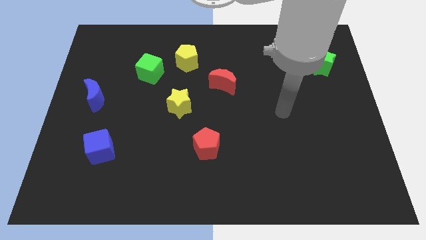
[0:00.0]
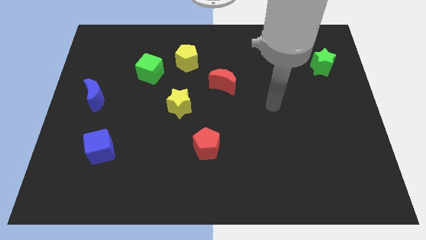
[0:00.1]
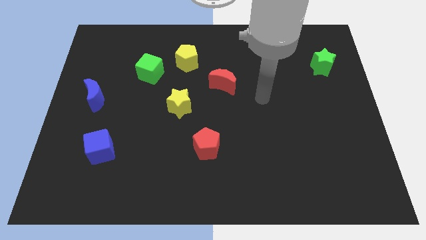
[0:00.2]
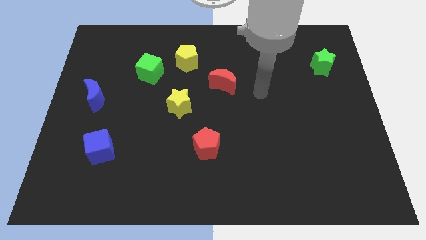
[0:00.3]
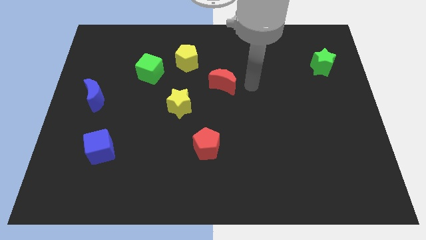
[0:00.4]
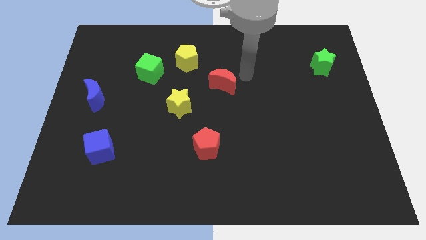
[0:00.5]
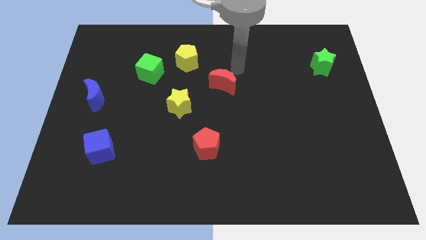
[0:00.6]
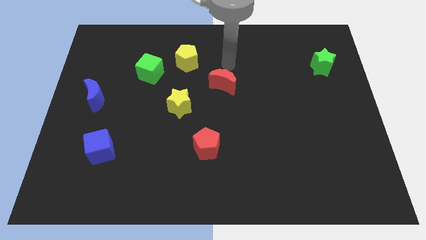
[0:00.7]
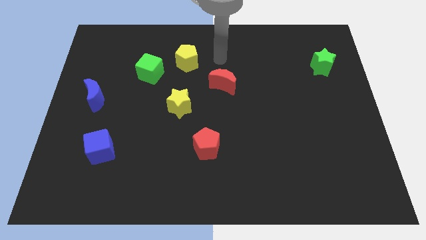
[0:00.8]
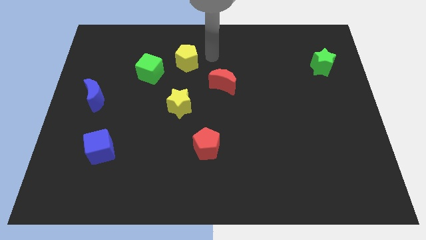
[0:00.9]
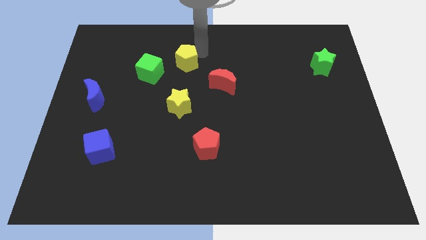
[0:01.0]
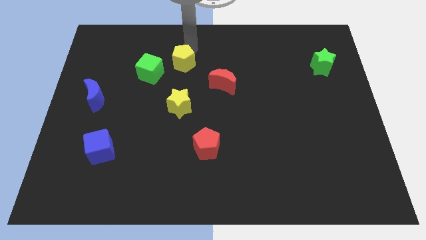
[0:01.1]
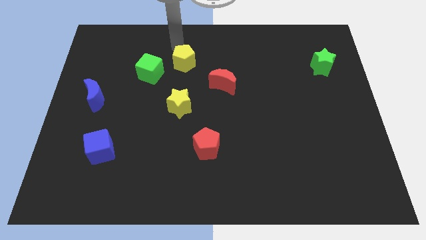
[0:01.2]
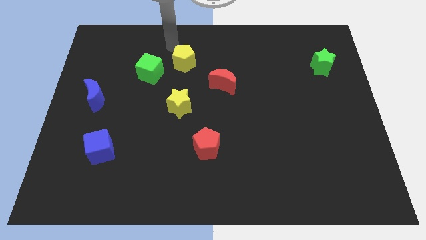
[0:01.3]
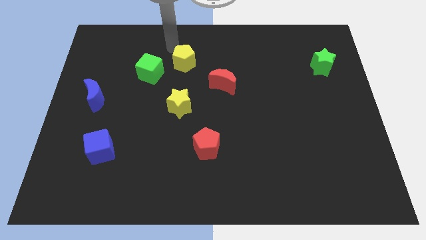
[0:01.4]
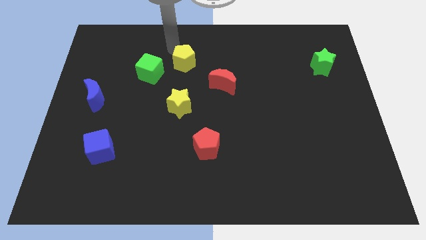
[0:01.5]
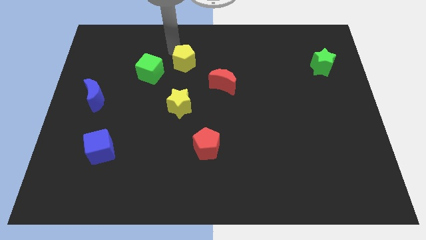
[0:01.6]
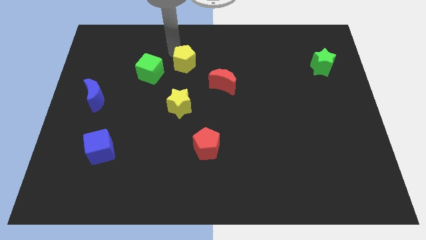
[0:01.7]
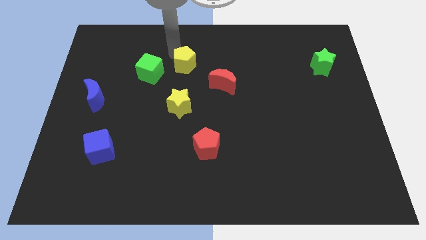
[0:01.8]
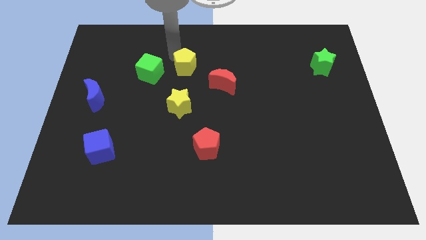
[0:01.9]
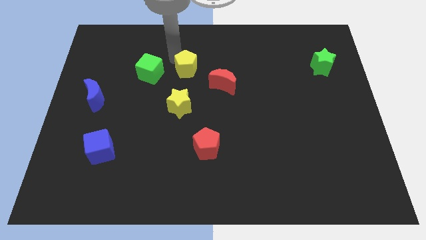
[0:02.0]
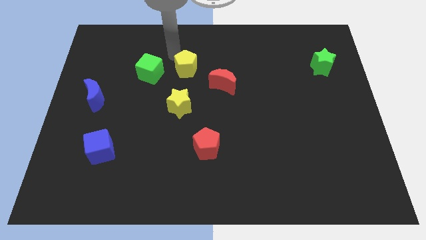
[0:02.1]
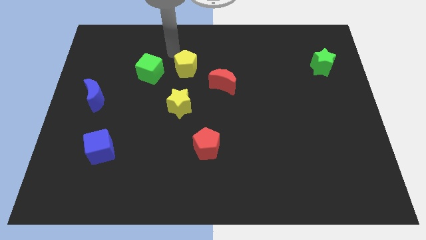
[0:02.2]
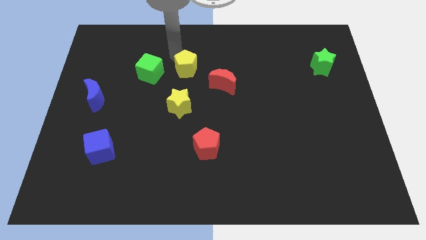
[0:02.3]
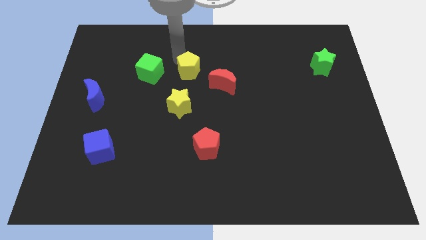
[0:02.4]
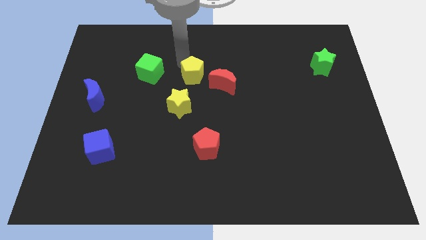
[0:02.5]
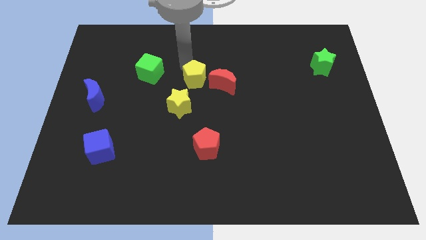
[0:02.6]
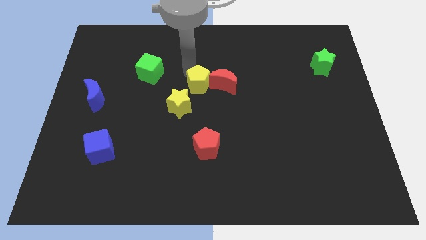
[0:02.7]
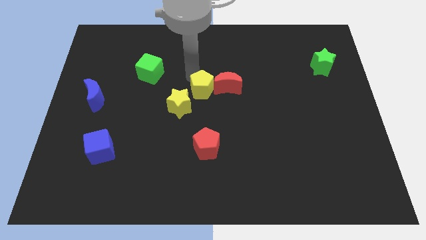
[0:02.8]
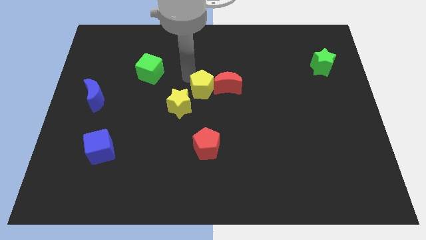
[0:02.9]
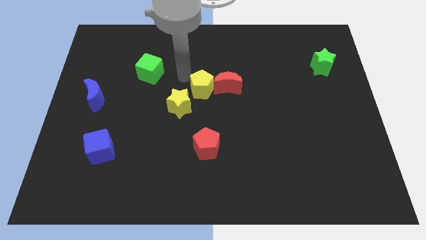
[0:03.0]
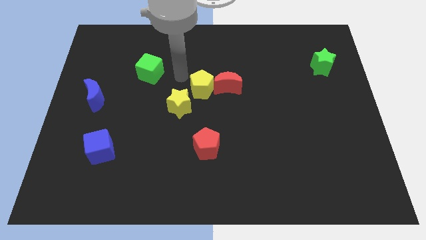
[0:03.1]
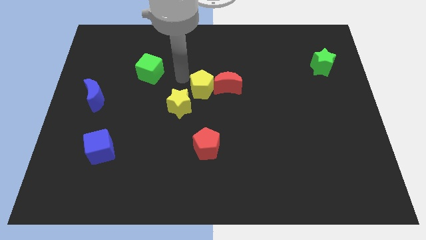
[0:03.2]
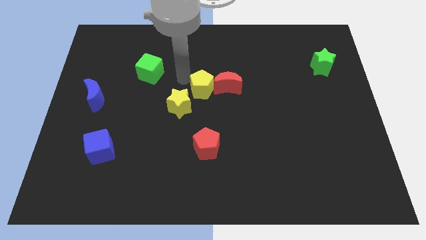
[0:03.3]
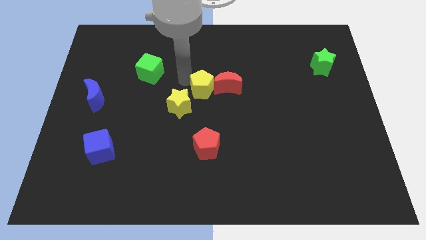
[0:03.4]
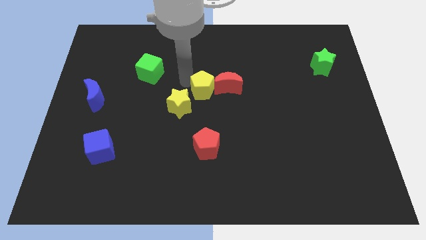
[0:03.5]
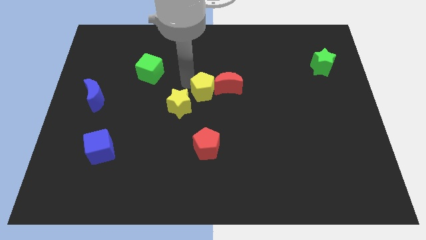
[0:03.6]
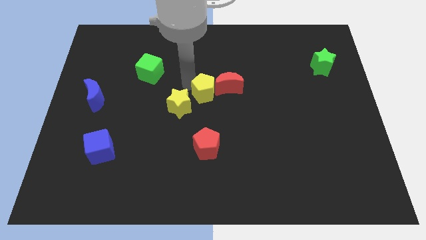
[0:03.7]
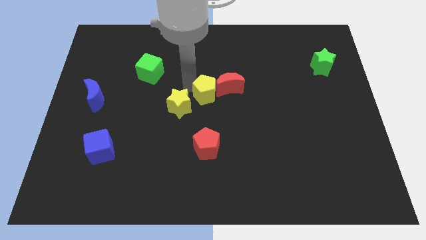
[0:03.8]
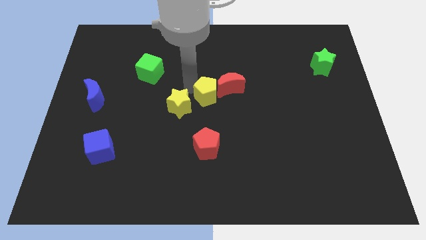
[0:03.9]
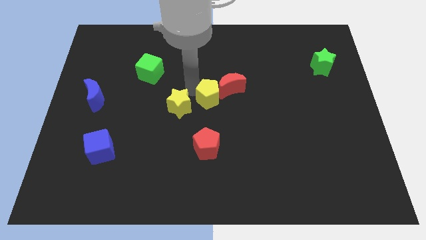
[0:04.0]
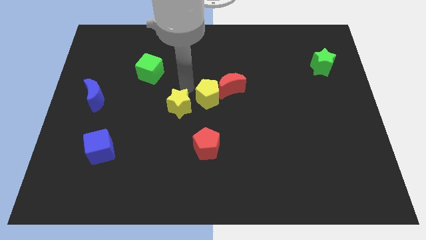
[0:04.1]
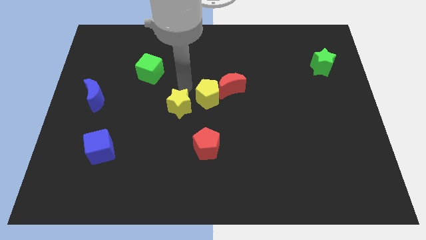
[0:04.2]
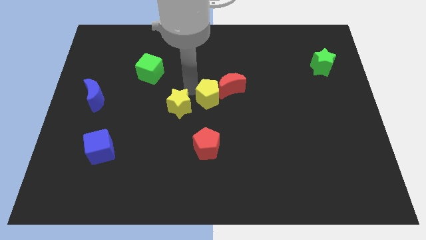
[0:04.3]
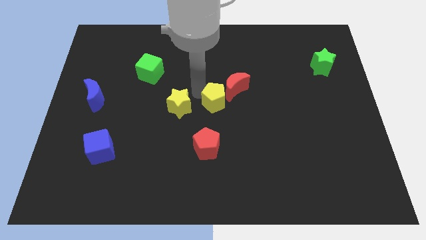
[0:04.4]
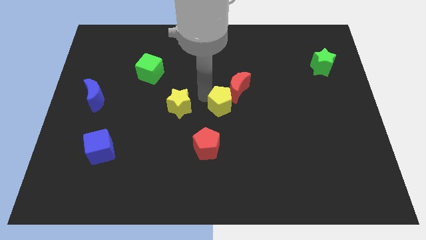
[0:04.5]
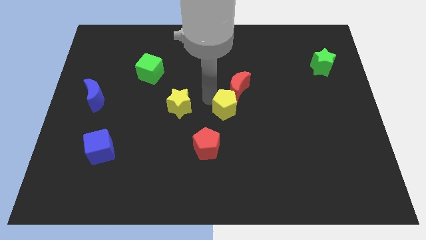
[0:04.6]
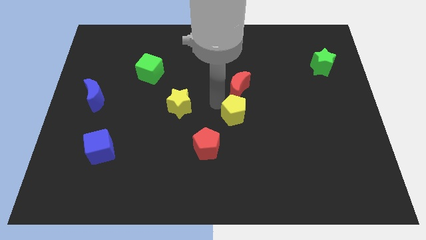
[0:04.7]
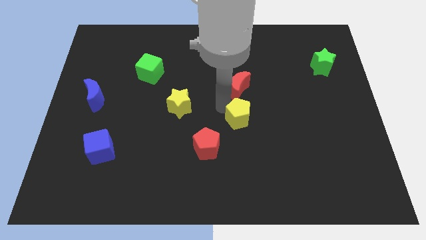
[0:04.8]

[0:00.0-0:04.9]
slide the yellow pentagon down and to the right diagonally

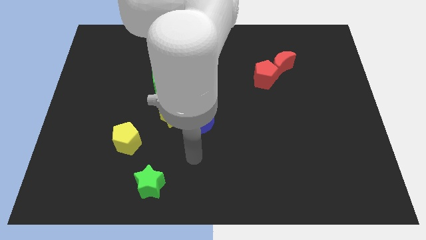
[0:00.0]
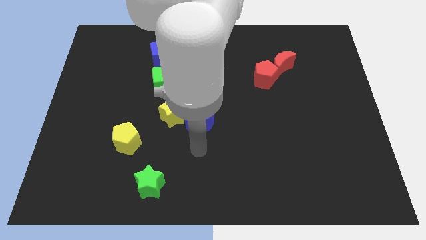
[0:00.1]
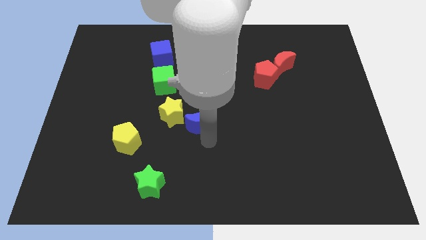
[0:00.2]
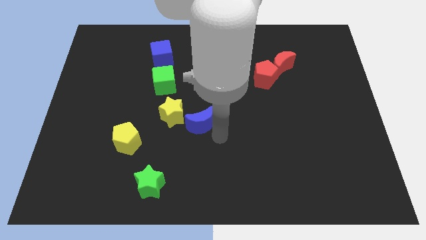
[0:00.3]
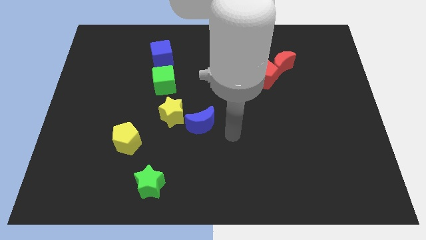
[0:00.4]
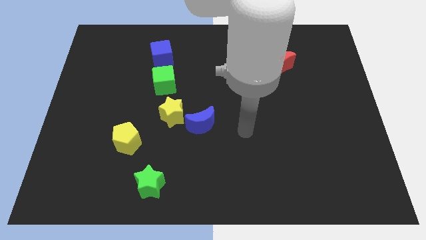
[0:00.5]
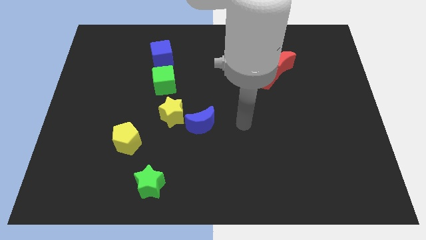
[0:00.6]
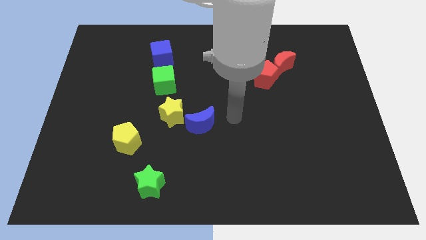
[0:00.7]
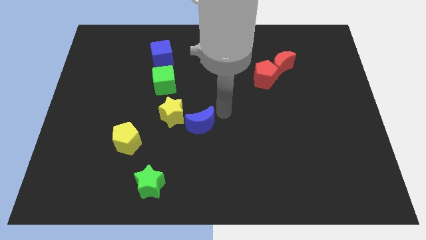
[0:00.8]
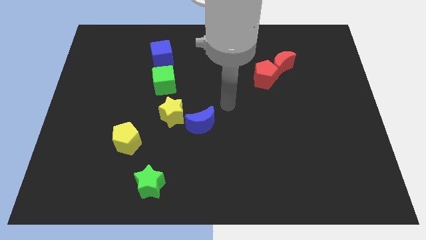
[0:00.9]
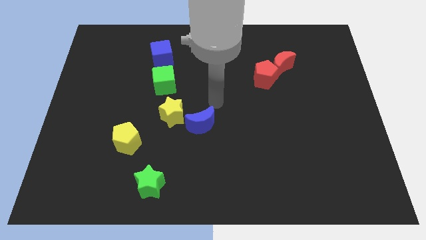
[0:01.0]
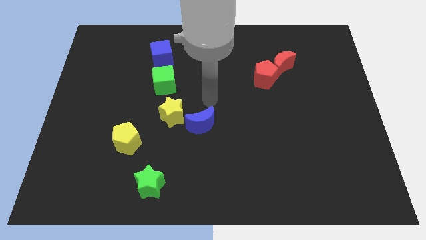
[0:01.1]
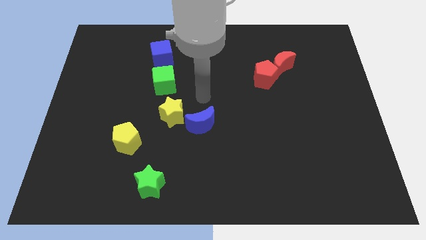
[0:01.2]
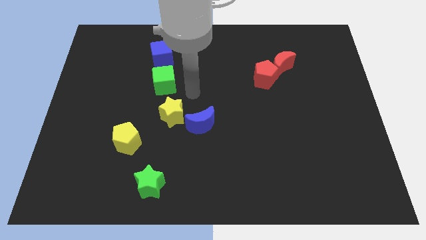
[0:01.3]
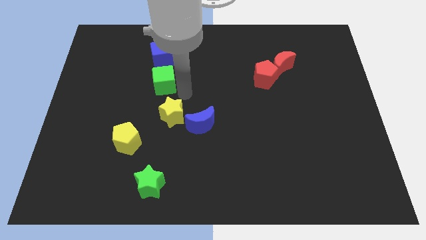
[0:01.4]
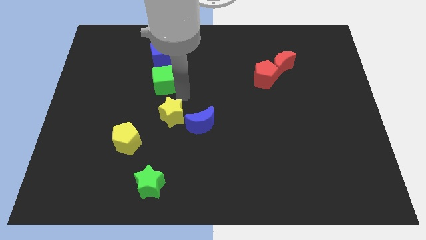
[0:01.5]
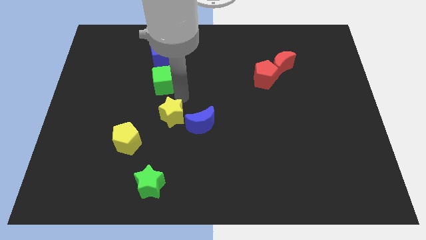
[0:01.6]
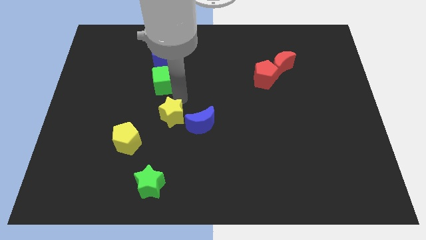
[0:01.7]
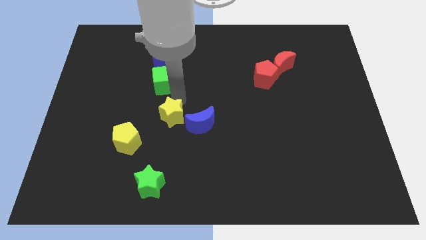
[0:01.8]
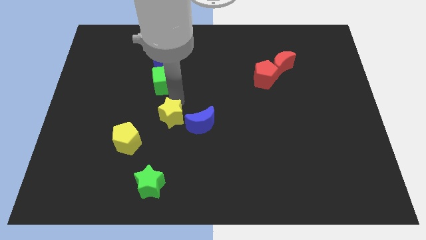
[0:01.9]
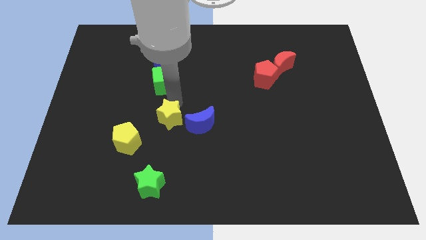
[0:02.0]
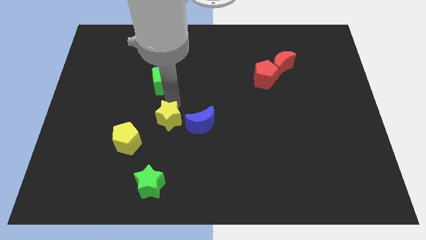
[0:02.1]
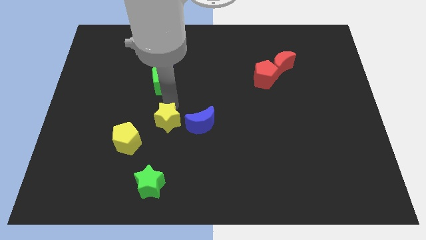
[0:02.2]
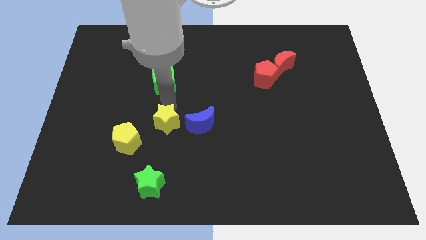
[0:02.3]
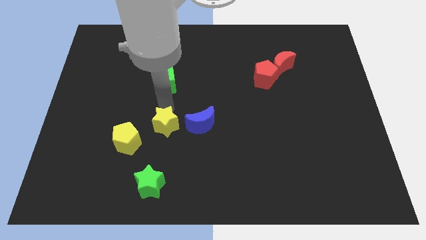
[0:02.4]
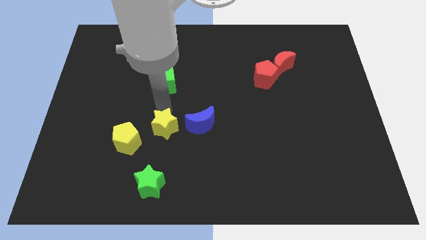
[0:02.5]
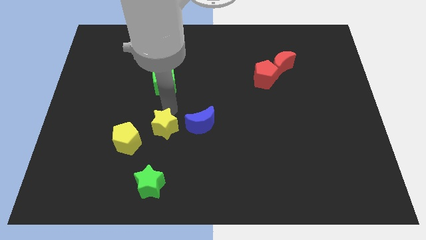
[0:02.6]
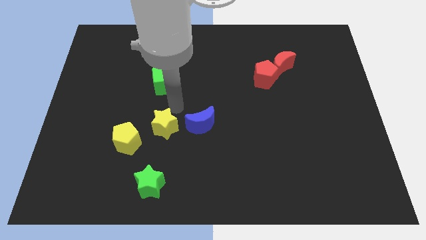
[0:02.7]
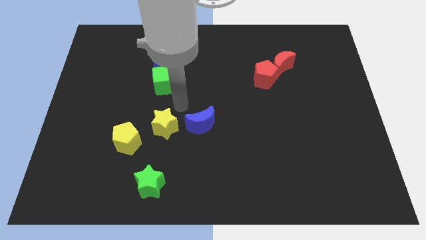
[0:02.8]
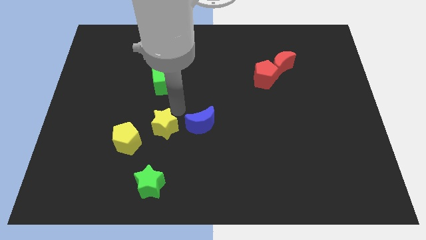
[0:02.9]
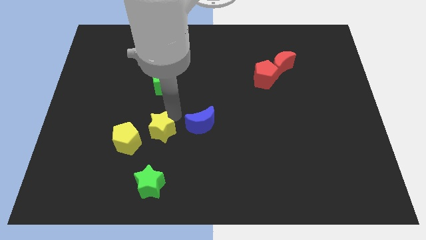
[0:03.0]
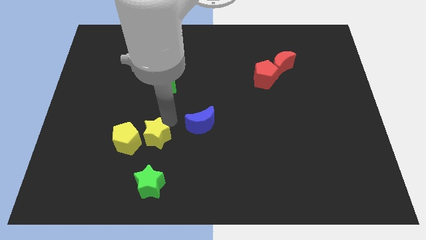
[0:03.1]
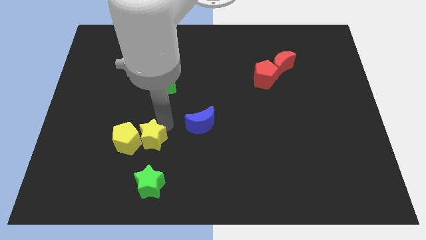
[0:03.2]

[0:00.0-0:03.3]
push the yellow star downwards and then left slightly
